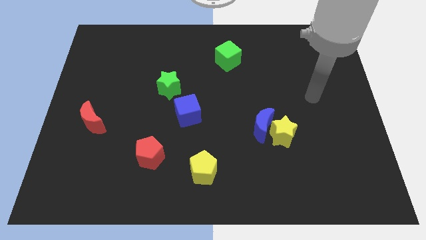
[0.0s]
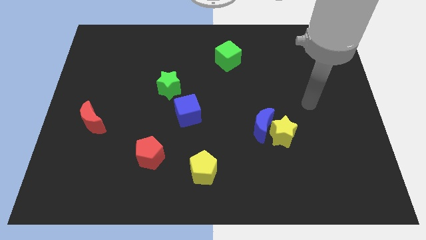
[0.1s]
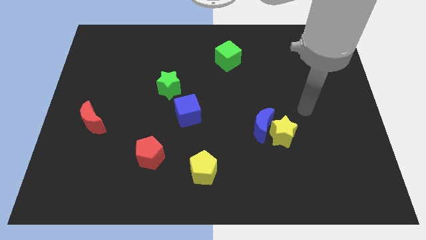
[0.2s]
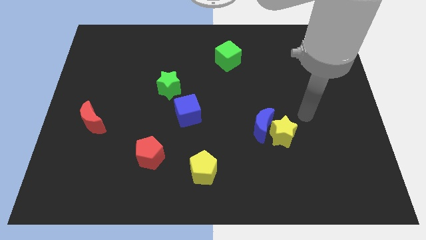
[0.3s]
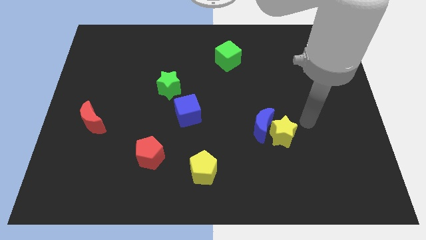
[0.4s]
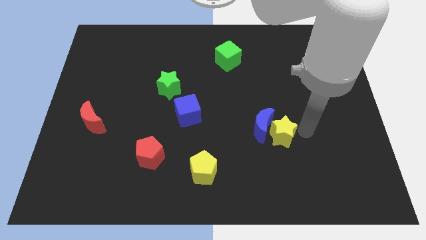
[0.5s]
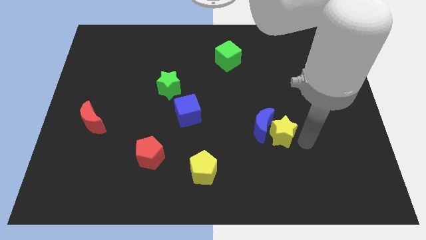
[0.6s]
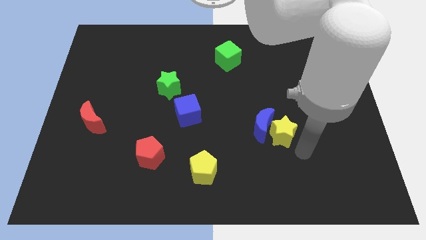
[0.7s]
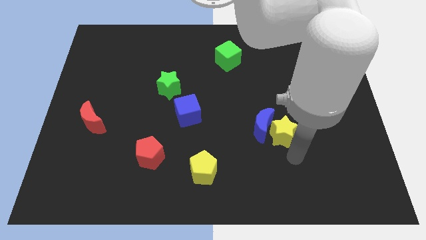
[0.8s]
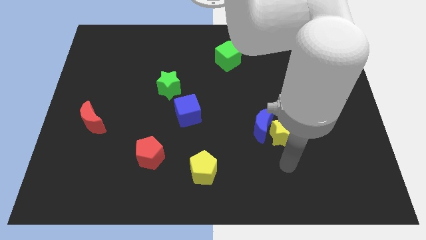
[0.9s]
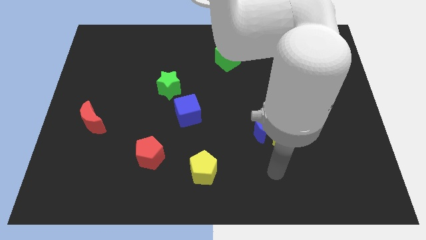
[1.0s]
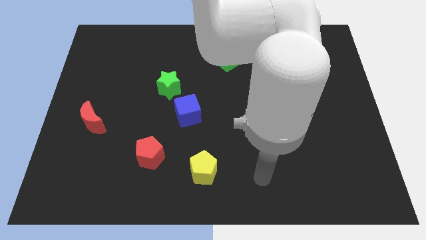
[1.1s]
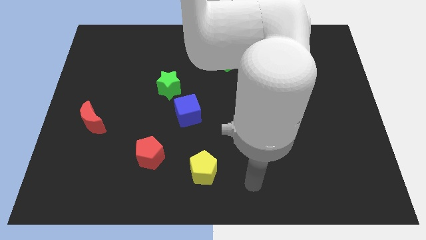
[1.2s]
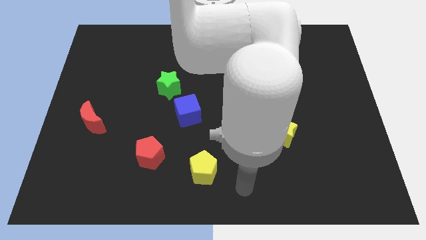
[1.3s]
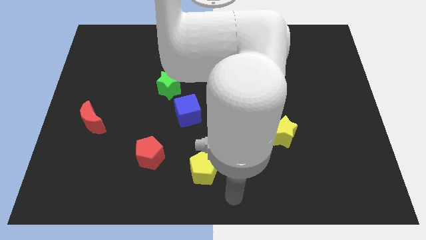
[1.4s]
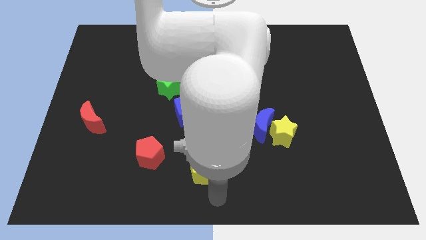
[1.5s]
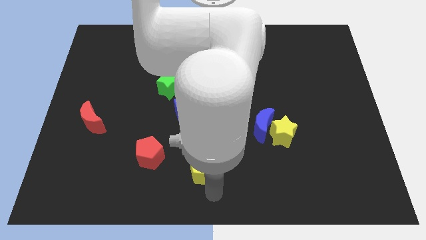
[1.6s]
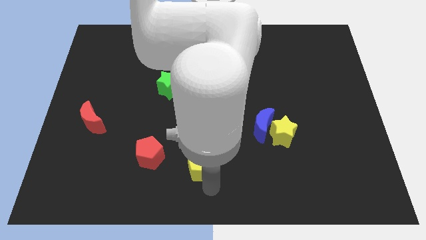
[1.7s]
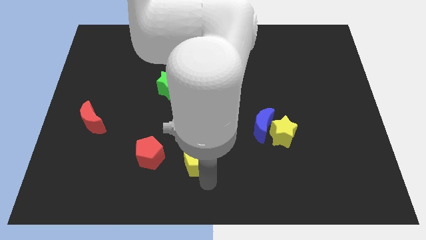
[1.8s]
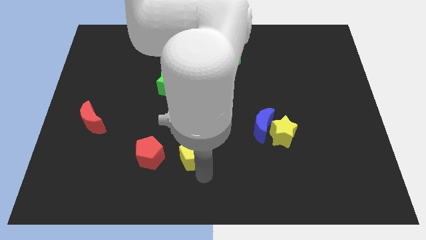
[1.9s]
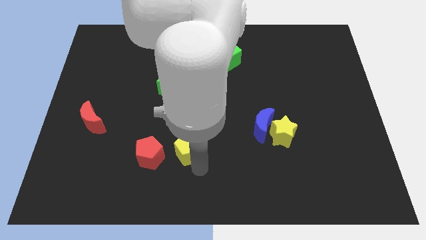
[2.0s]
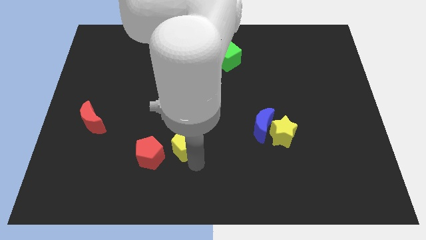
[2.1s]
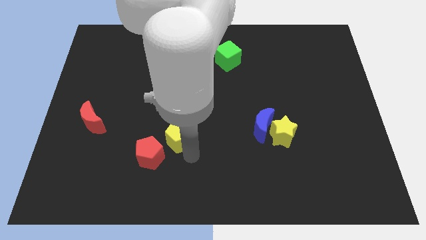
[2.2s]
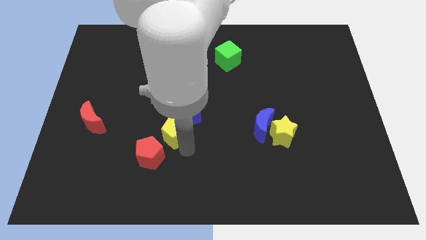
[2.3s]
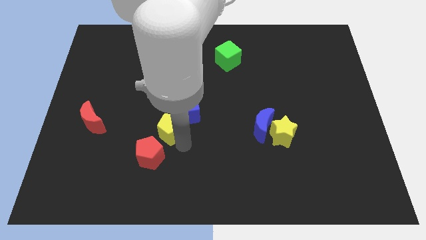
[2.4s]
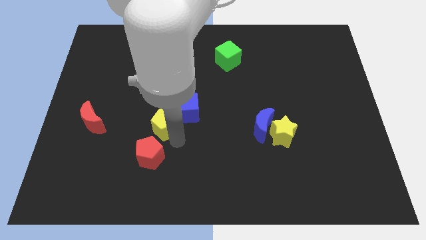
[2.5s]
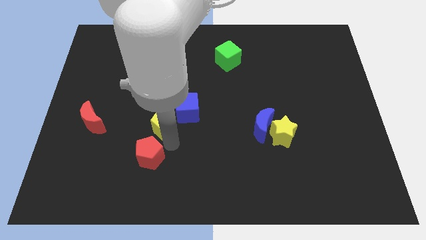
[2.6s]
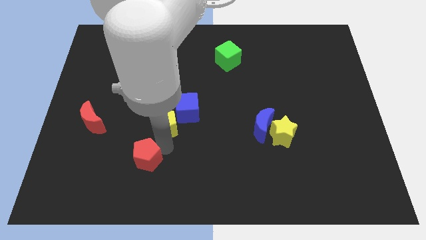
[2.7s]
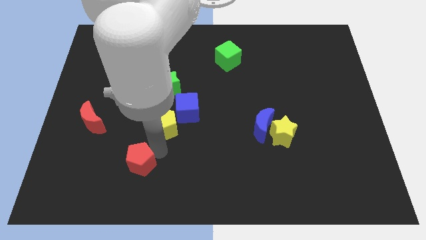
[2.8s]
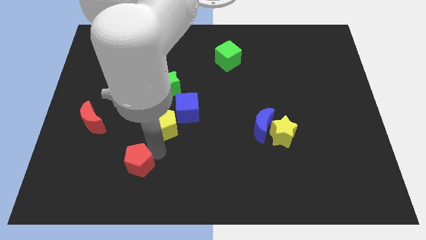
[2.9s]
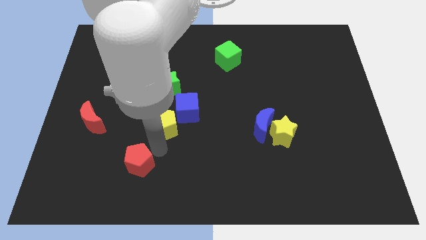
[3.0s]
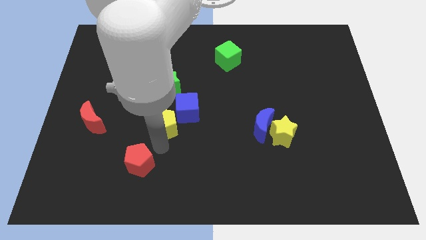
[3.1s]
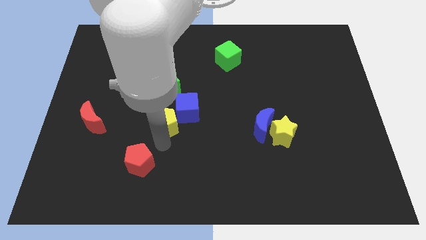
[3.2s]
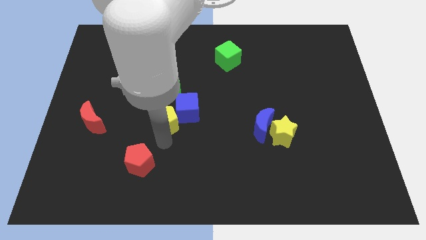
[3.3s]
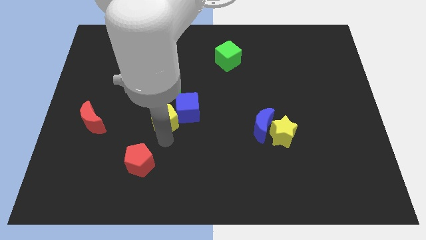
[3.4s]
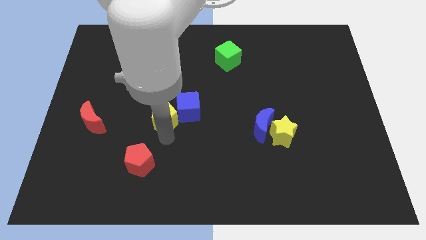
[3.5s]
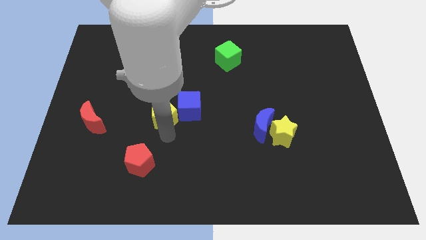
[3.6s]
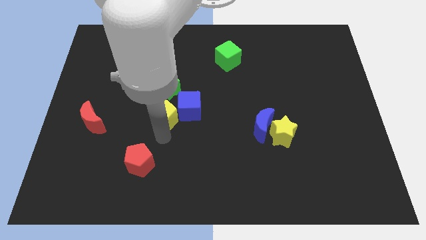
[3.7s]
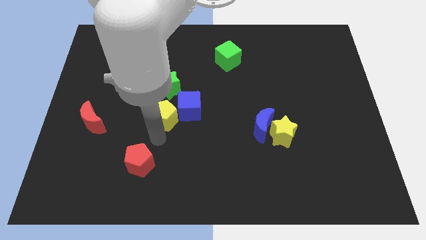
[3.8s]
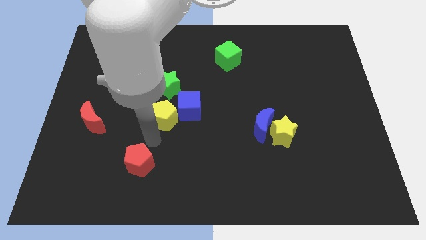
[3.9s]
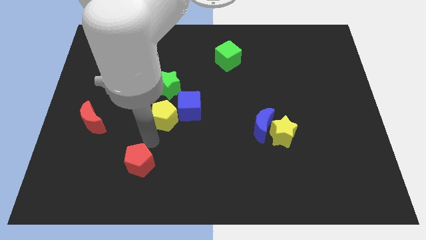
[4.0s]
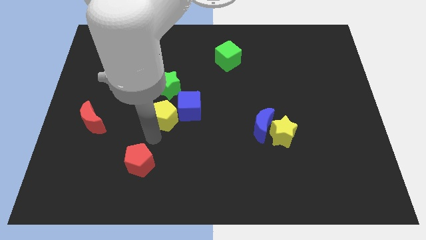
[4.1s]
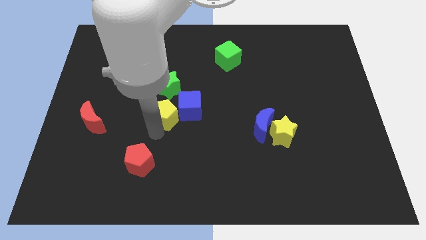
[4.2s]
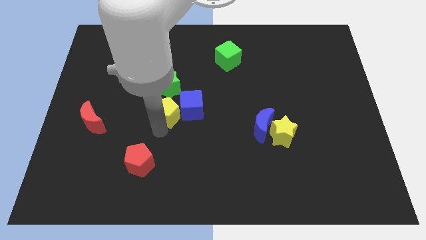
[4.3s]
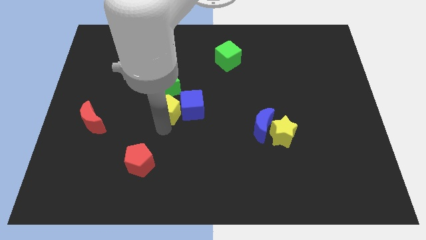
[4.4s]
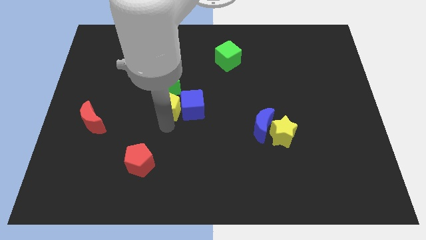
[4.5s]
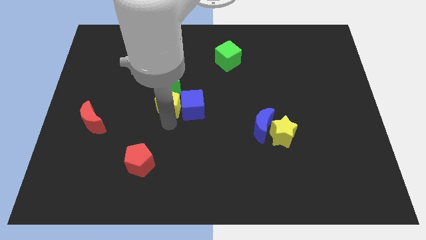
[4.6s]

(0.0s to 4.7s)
move the yellow pentagon to the green star

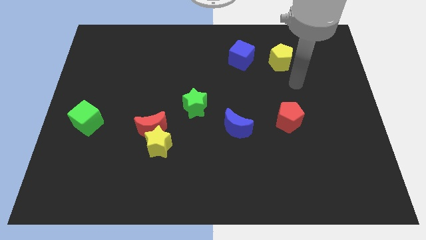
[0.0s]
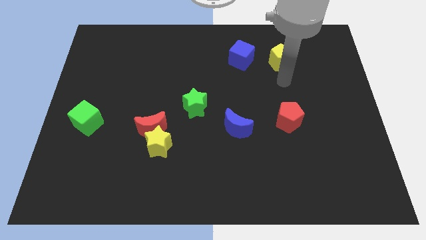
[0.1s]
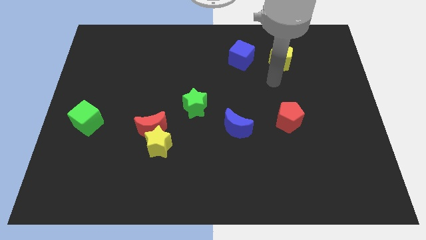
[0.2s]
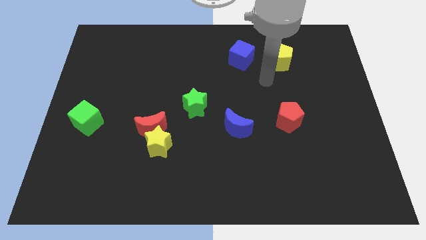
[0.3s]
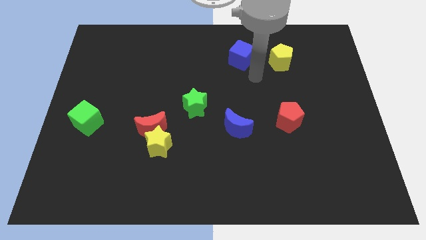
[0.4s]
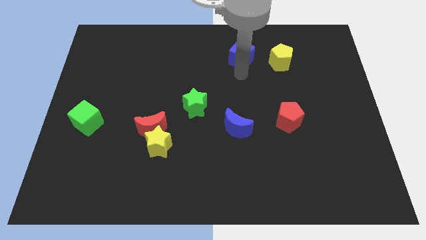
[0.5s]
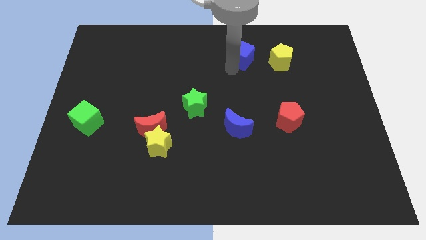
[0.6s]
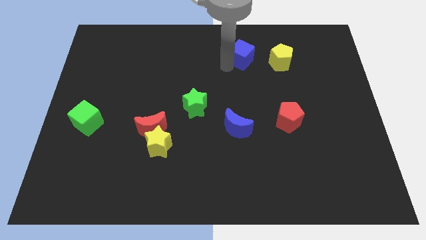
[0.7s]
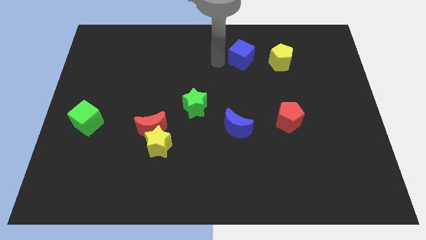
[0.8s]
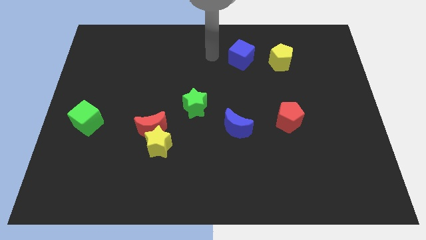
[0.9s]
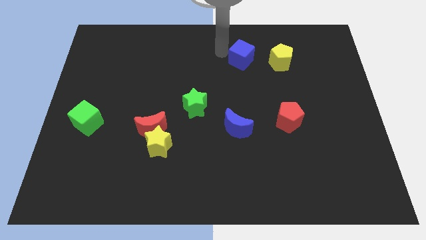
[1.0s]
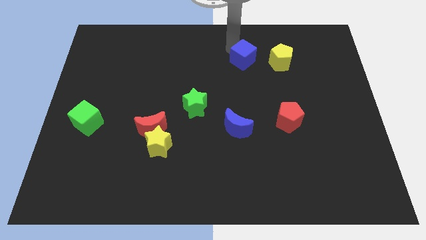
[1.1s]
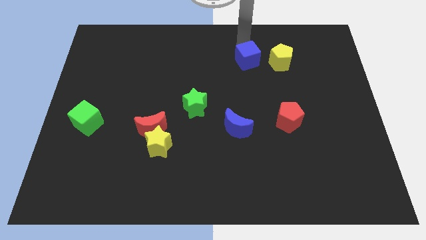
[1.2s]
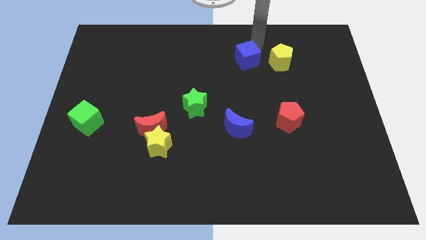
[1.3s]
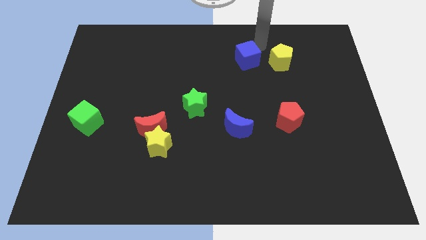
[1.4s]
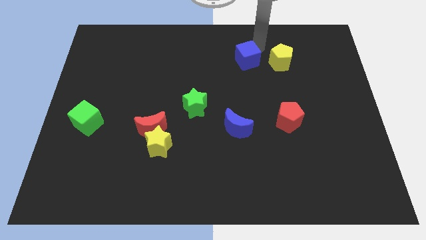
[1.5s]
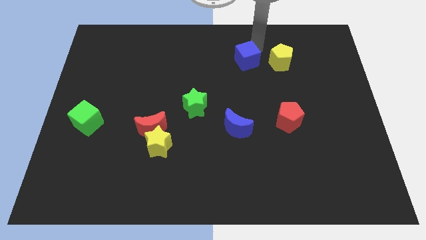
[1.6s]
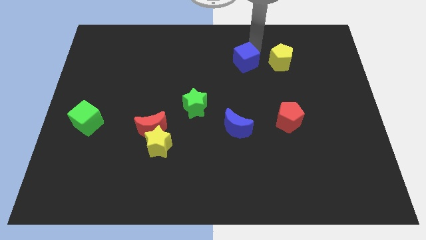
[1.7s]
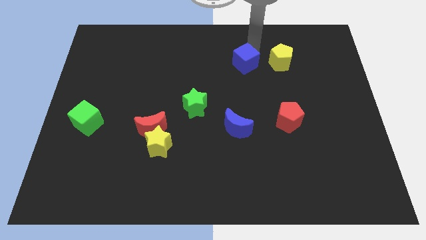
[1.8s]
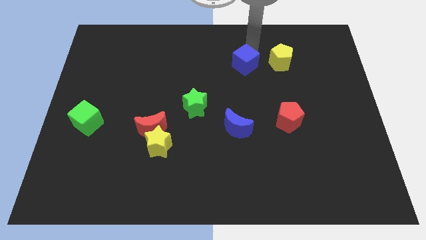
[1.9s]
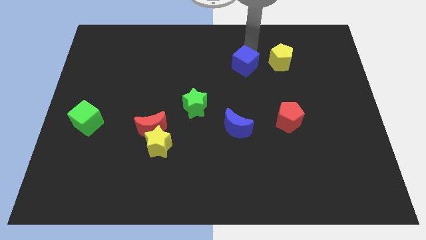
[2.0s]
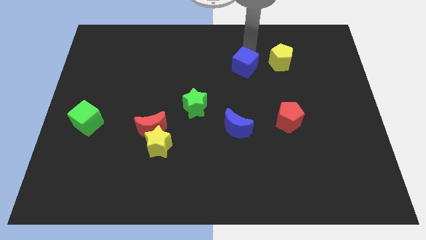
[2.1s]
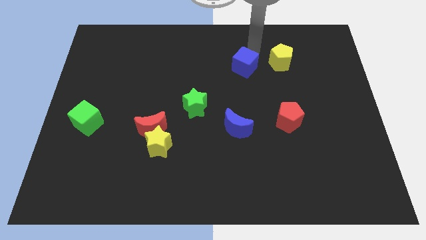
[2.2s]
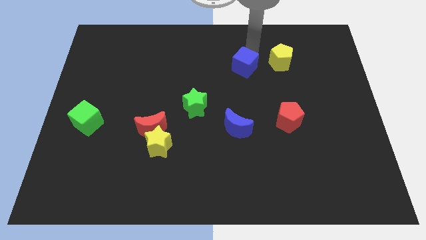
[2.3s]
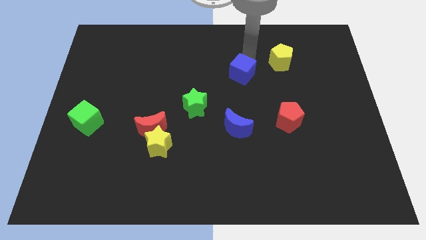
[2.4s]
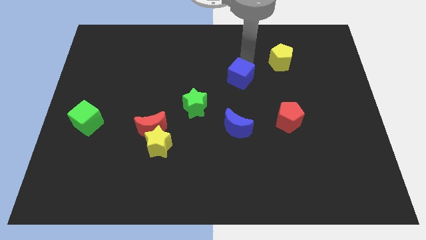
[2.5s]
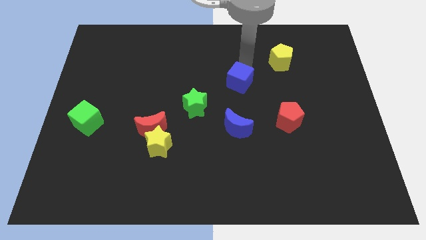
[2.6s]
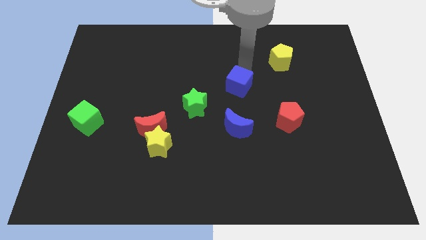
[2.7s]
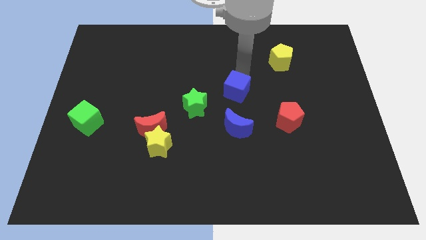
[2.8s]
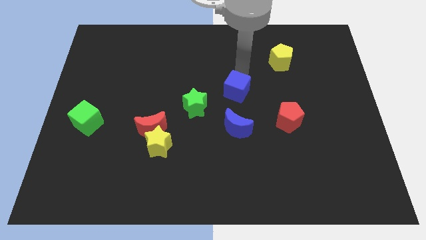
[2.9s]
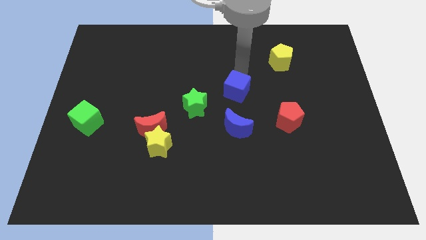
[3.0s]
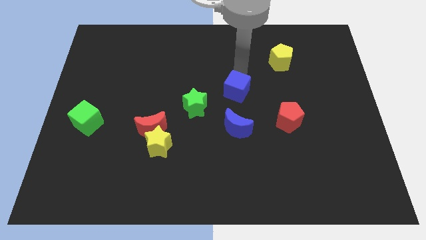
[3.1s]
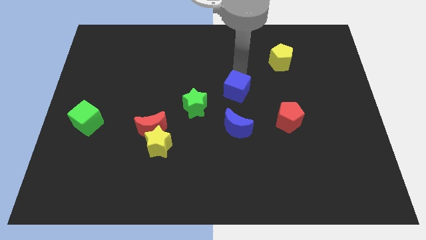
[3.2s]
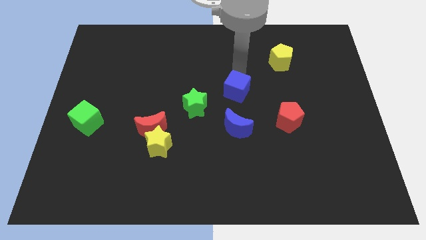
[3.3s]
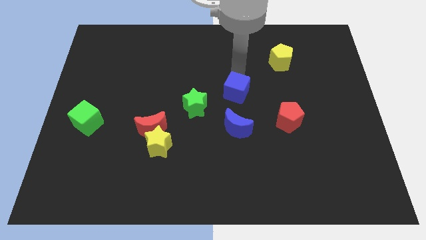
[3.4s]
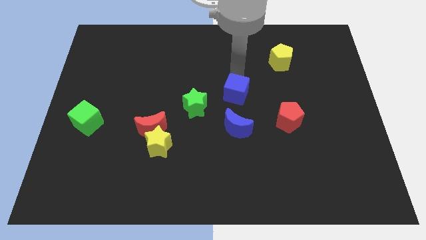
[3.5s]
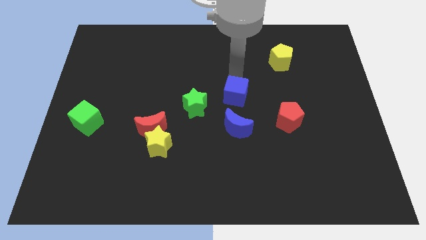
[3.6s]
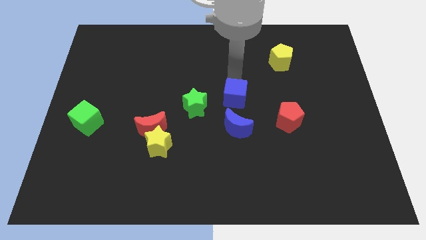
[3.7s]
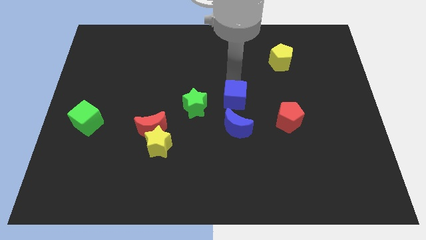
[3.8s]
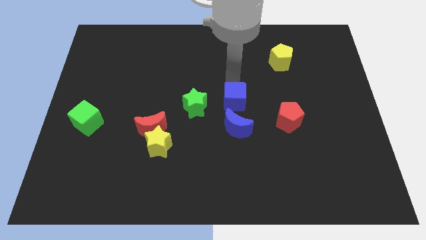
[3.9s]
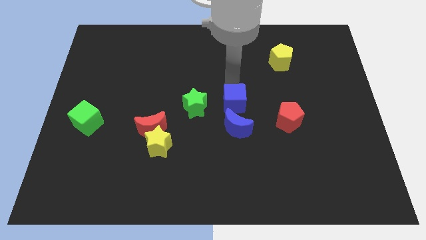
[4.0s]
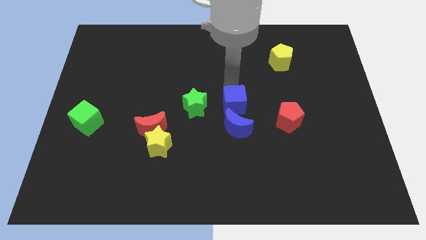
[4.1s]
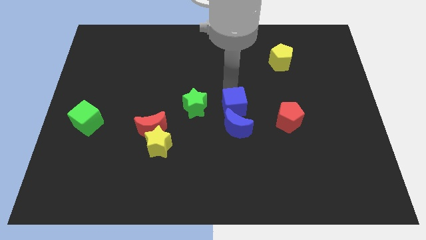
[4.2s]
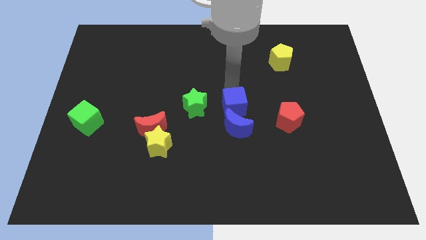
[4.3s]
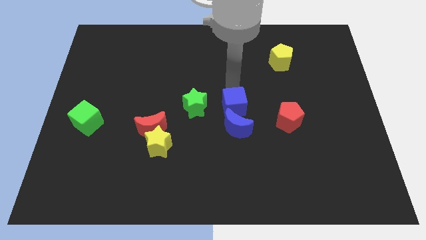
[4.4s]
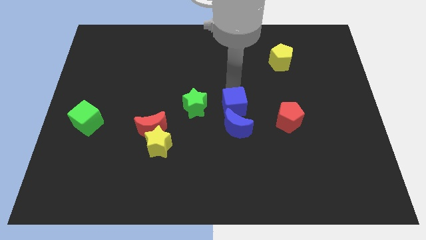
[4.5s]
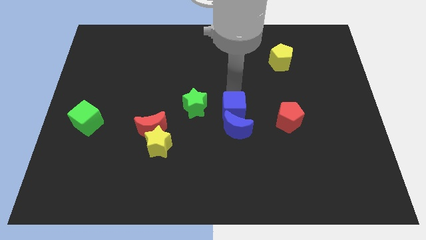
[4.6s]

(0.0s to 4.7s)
push the blue cube close to the blue moon
